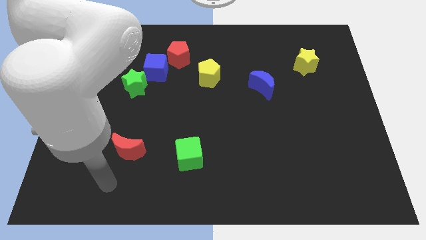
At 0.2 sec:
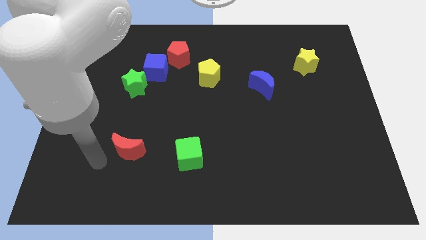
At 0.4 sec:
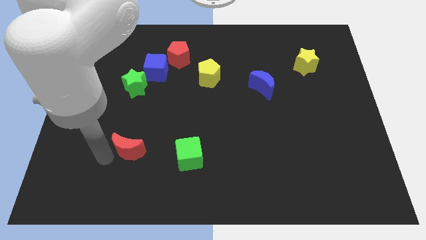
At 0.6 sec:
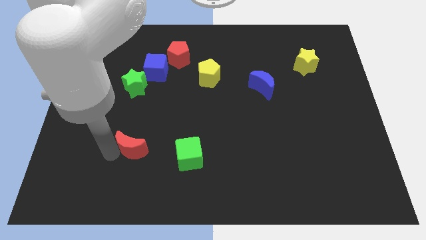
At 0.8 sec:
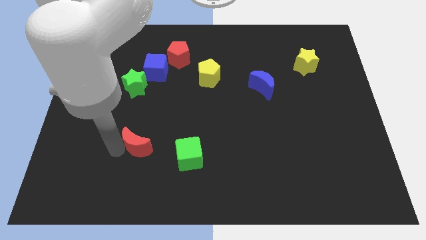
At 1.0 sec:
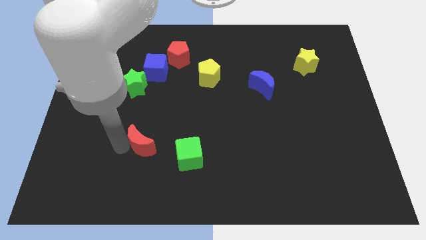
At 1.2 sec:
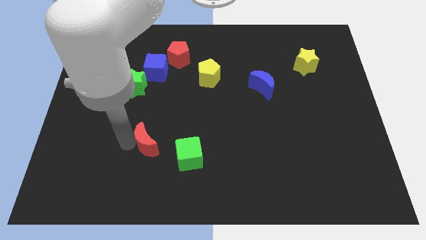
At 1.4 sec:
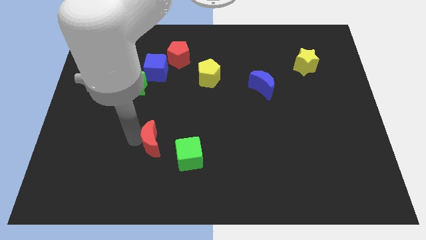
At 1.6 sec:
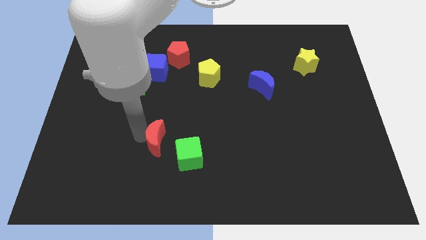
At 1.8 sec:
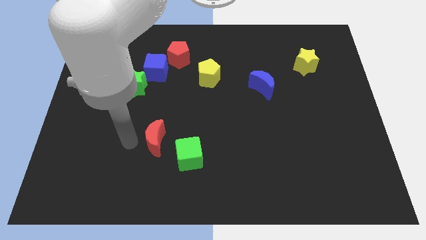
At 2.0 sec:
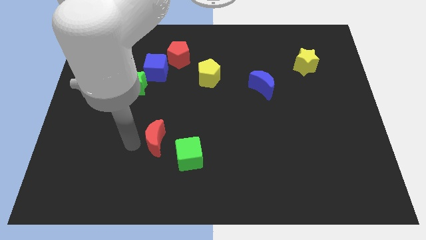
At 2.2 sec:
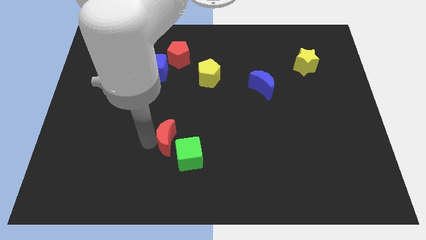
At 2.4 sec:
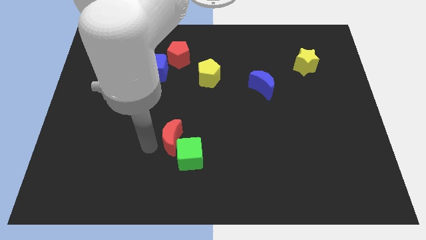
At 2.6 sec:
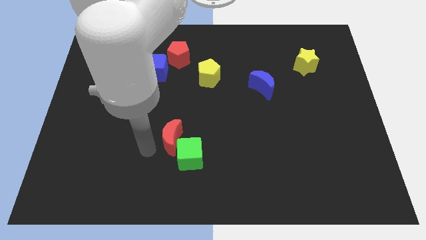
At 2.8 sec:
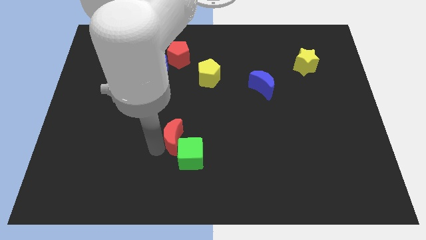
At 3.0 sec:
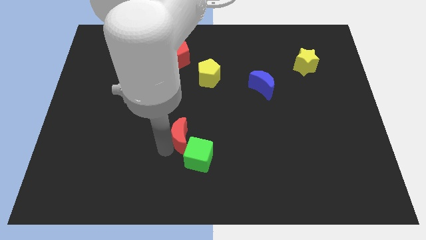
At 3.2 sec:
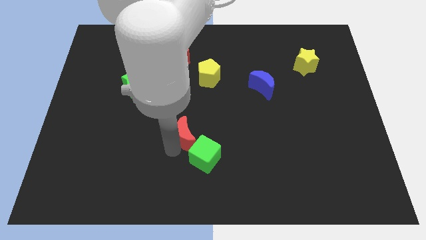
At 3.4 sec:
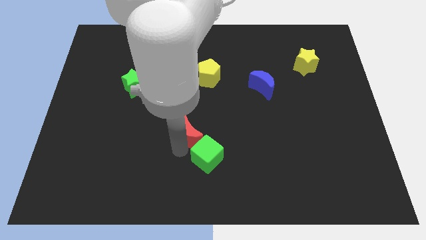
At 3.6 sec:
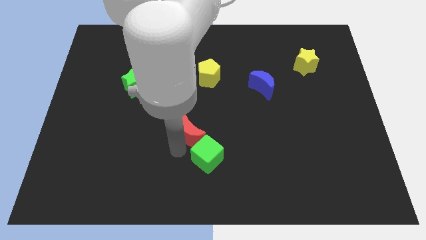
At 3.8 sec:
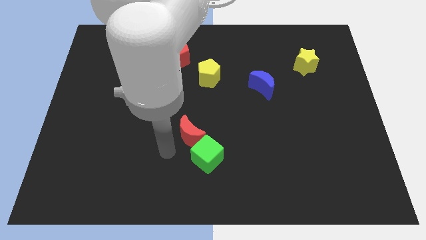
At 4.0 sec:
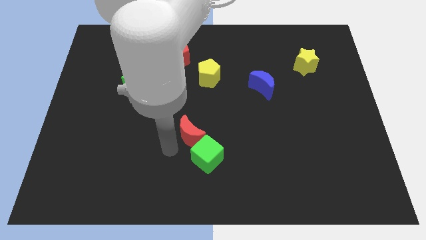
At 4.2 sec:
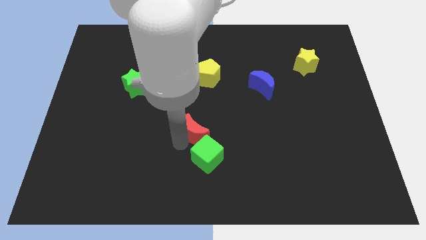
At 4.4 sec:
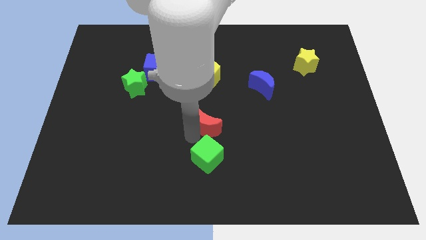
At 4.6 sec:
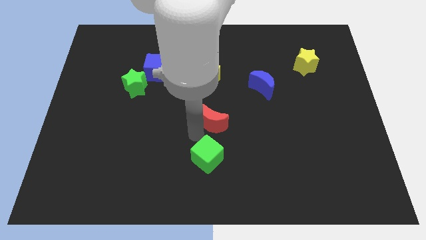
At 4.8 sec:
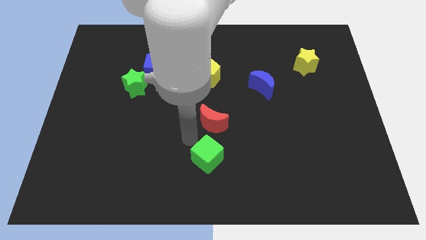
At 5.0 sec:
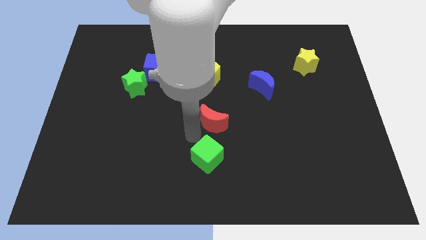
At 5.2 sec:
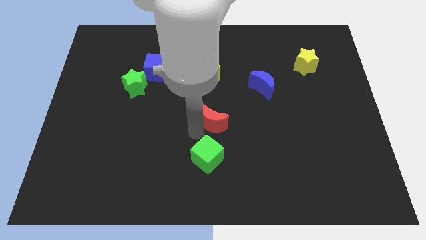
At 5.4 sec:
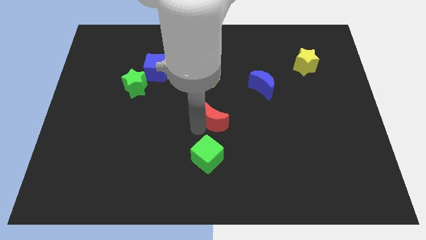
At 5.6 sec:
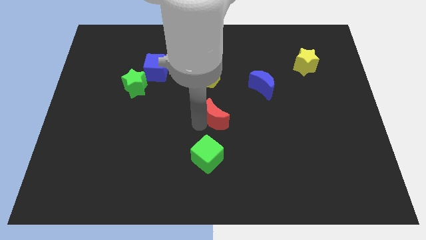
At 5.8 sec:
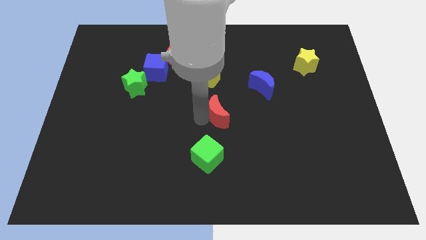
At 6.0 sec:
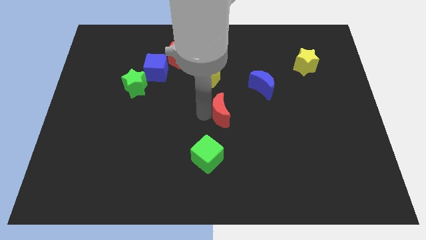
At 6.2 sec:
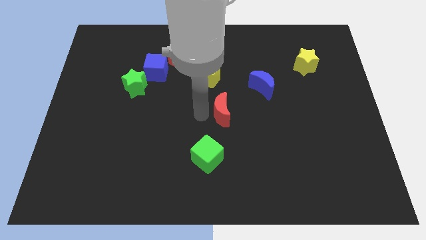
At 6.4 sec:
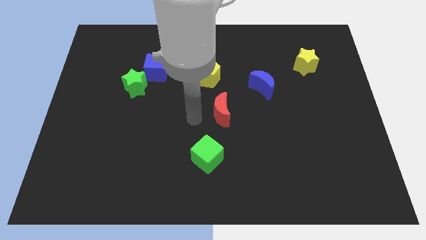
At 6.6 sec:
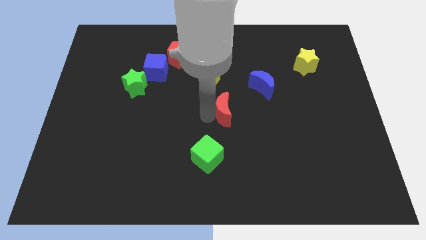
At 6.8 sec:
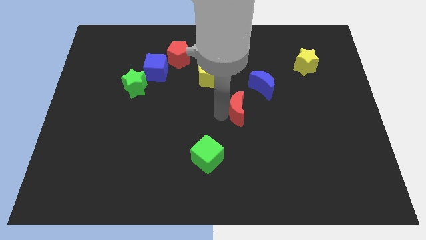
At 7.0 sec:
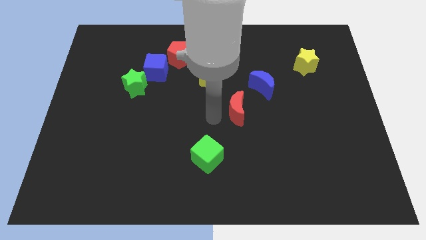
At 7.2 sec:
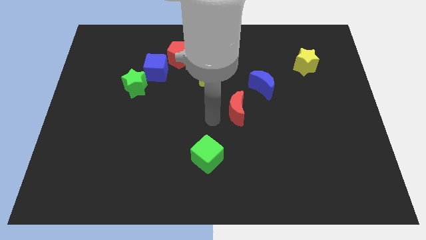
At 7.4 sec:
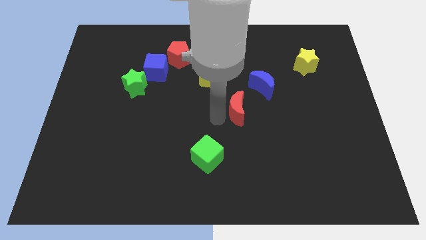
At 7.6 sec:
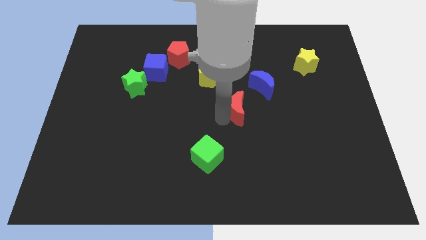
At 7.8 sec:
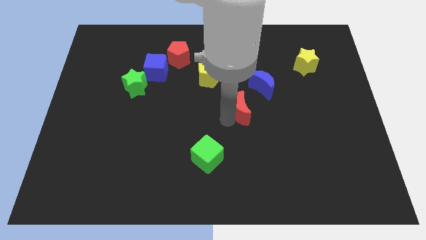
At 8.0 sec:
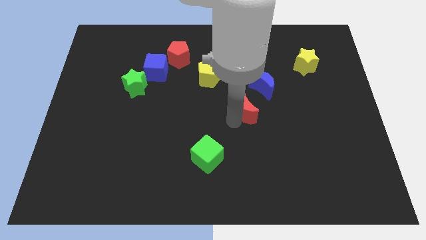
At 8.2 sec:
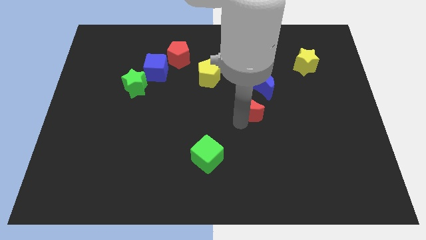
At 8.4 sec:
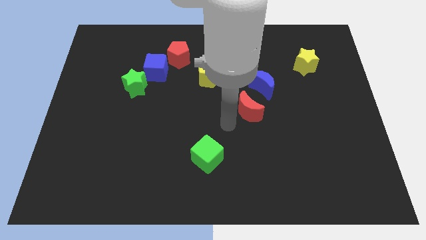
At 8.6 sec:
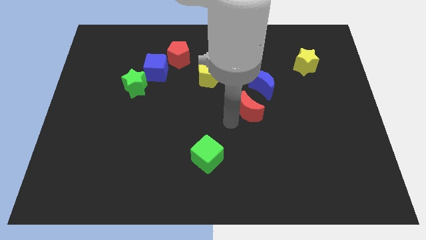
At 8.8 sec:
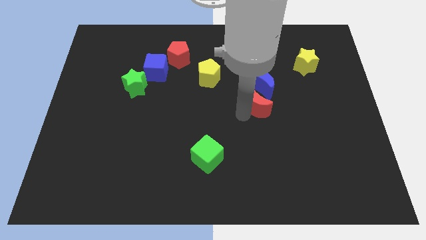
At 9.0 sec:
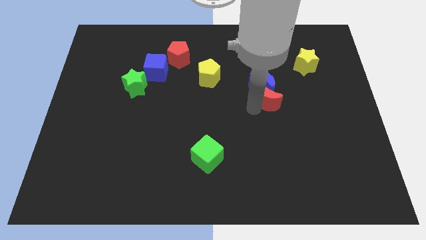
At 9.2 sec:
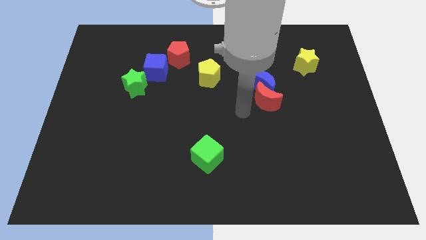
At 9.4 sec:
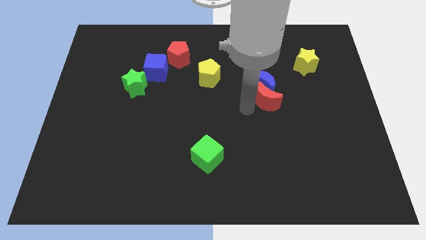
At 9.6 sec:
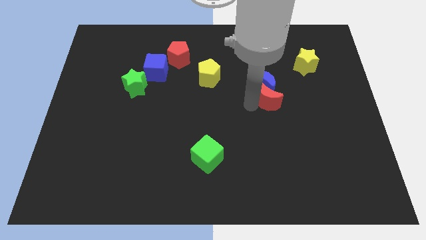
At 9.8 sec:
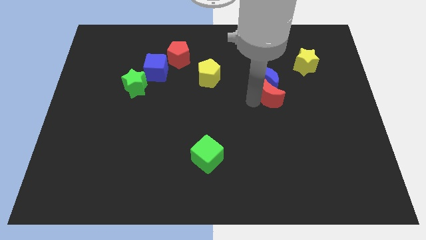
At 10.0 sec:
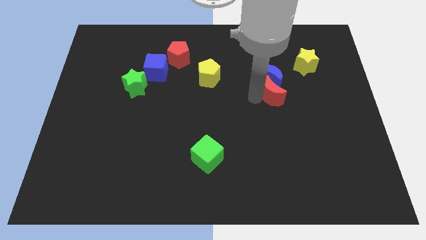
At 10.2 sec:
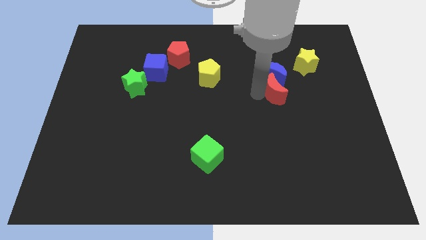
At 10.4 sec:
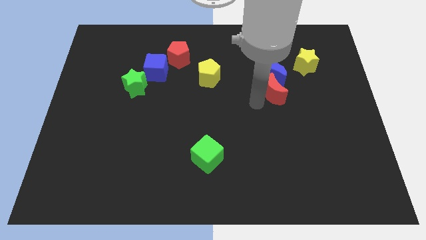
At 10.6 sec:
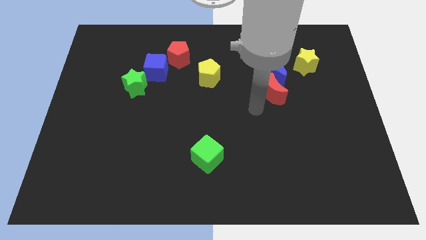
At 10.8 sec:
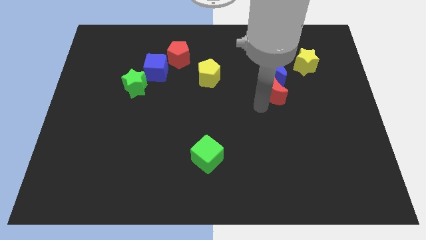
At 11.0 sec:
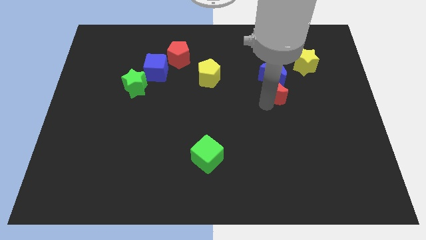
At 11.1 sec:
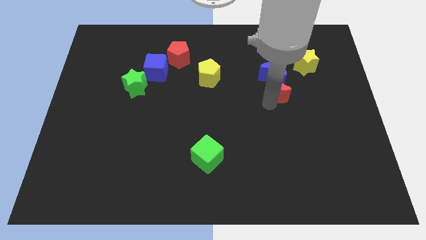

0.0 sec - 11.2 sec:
slide the red moon to the bottom left side of the yellow star

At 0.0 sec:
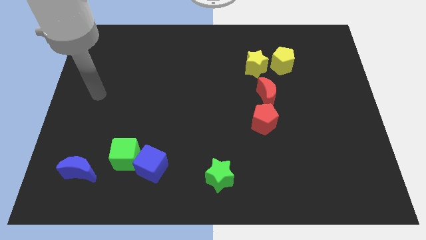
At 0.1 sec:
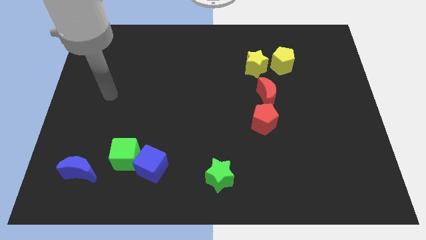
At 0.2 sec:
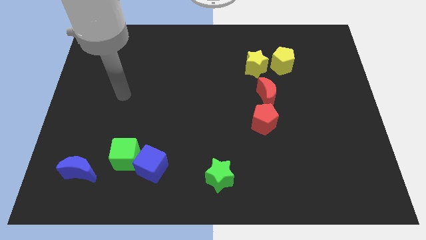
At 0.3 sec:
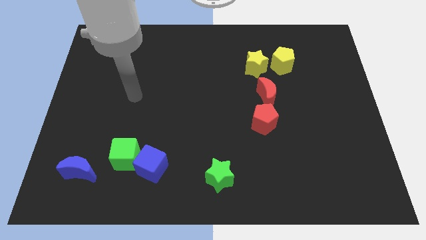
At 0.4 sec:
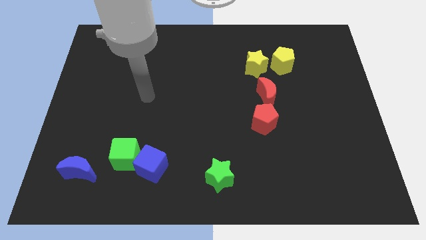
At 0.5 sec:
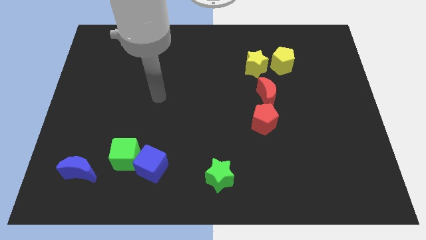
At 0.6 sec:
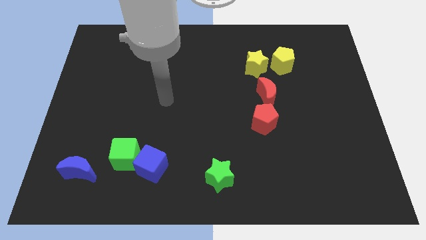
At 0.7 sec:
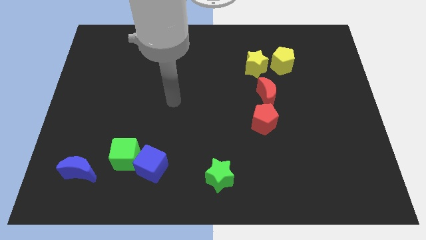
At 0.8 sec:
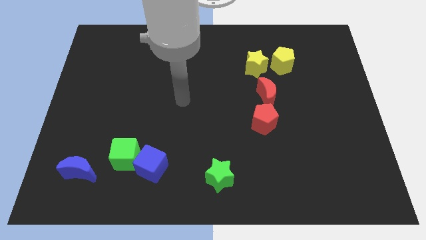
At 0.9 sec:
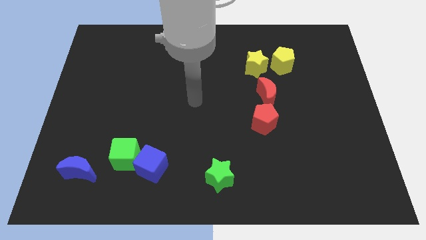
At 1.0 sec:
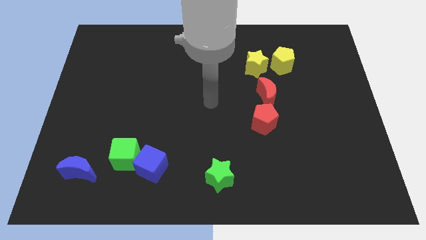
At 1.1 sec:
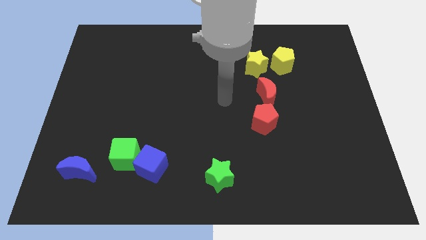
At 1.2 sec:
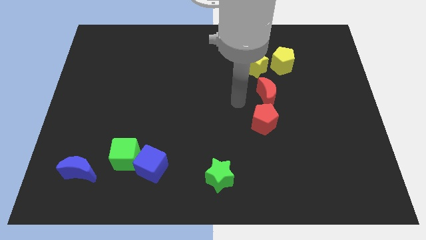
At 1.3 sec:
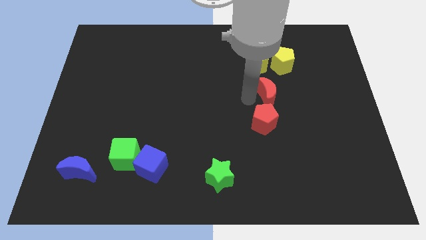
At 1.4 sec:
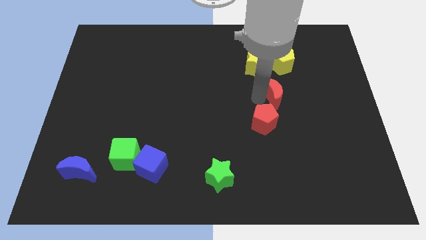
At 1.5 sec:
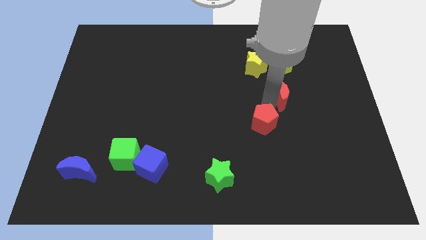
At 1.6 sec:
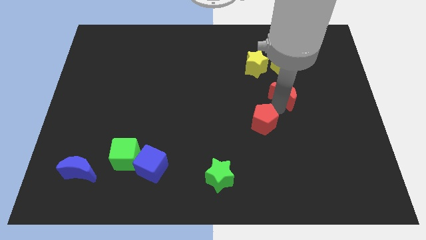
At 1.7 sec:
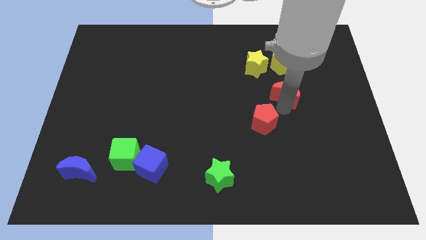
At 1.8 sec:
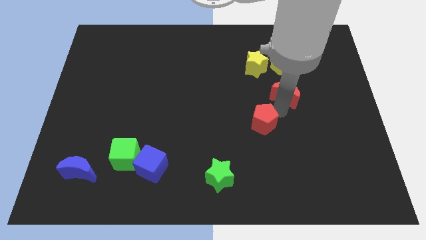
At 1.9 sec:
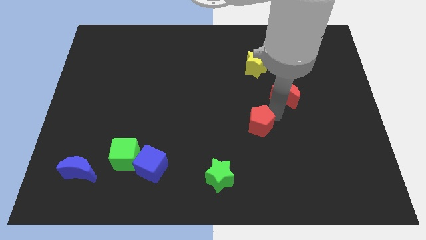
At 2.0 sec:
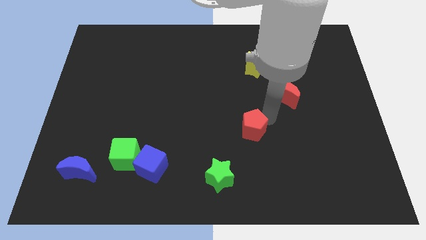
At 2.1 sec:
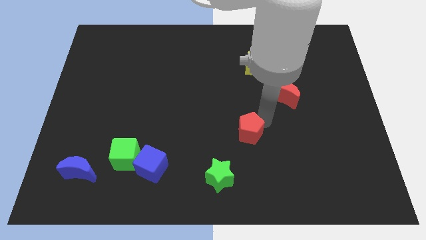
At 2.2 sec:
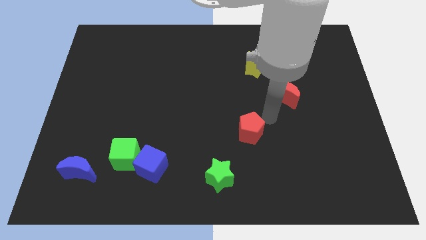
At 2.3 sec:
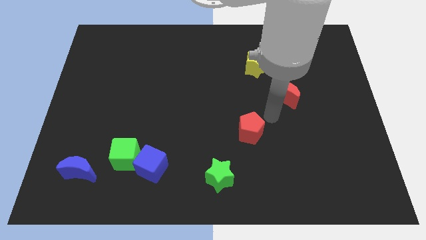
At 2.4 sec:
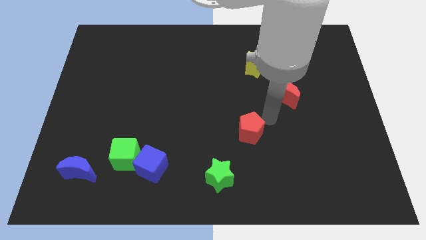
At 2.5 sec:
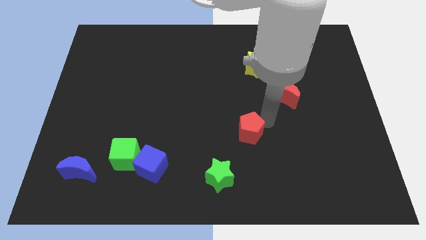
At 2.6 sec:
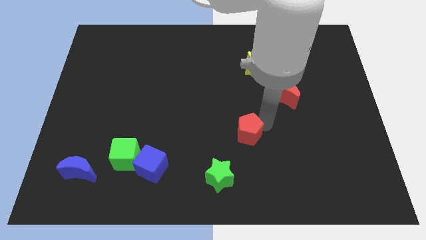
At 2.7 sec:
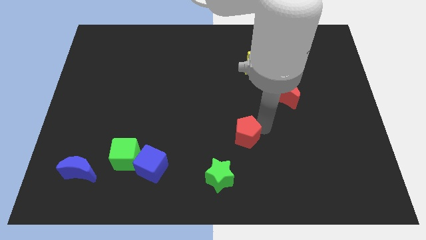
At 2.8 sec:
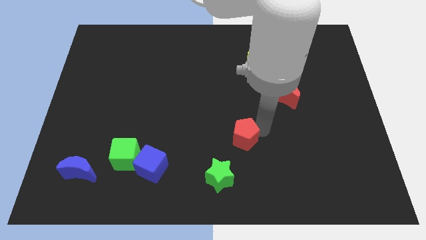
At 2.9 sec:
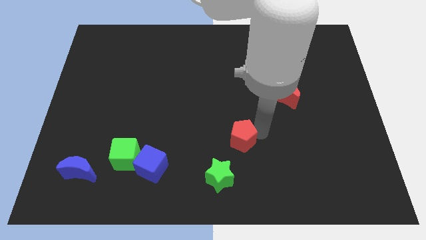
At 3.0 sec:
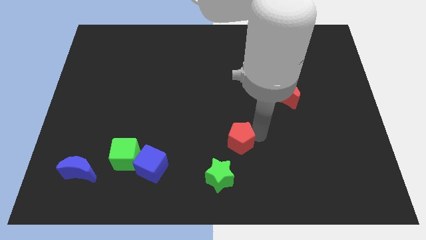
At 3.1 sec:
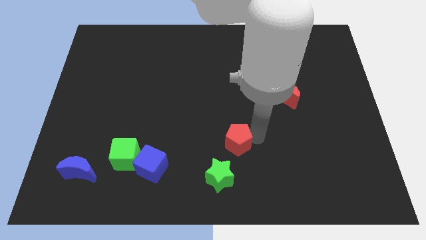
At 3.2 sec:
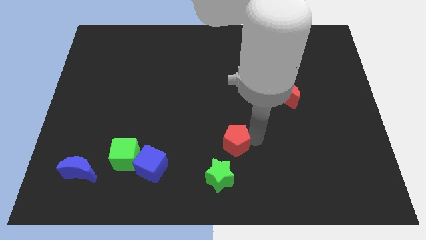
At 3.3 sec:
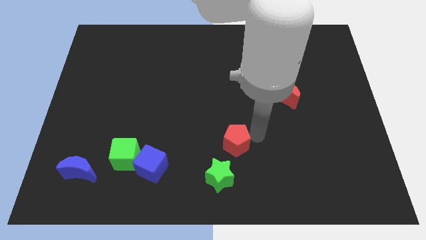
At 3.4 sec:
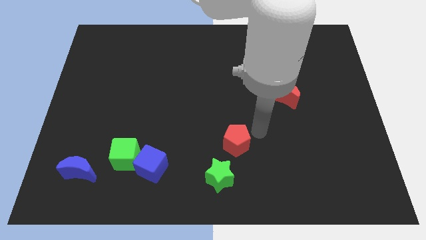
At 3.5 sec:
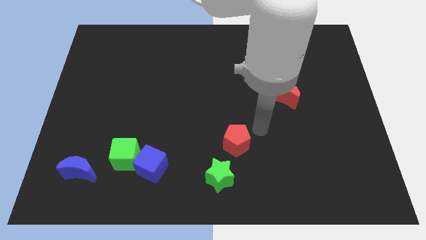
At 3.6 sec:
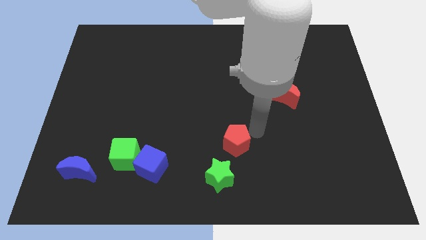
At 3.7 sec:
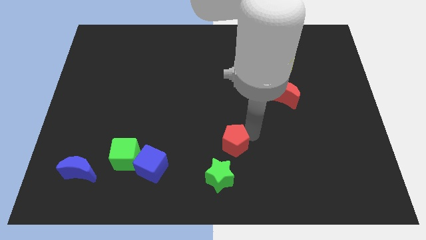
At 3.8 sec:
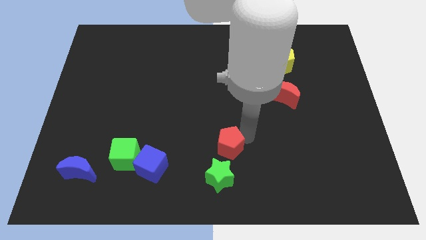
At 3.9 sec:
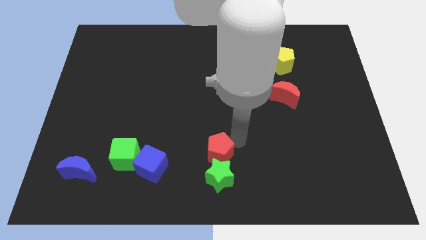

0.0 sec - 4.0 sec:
slide the red pentagon to the right side of the blue cube
